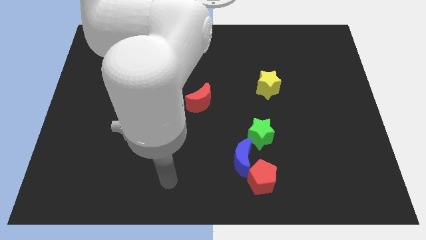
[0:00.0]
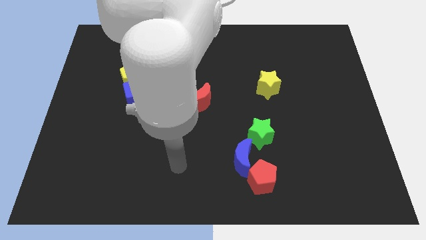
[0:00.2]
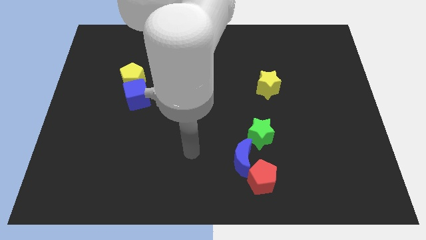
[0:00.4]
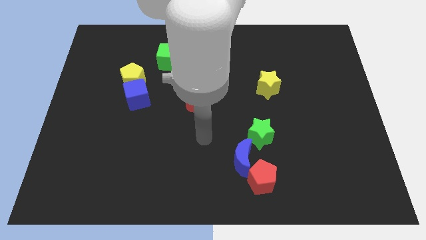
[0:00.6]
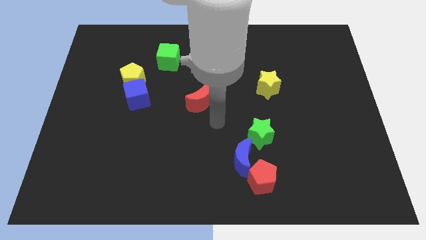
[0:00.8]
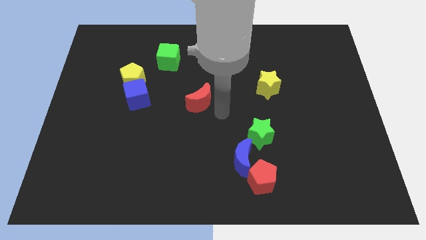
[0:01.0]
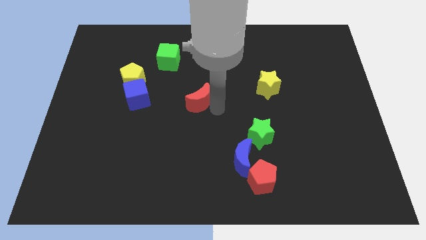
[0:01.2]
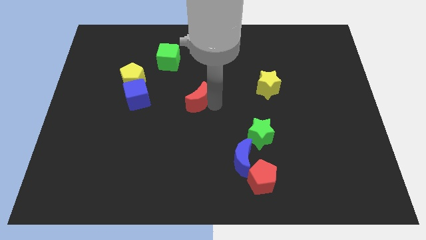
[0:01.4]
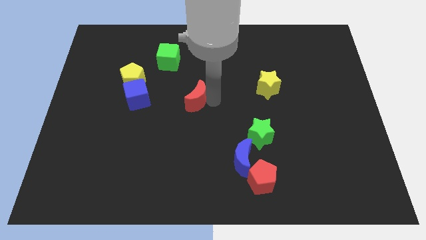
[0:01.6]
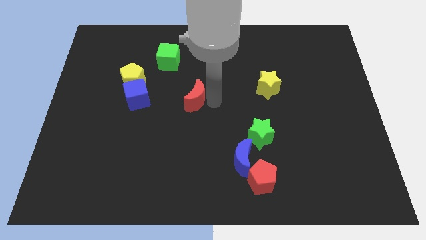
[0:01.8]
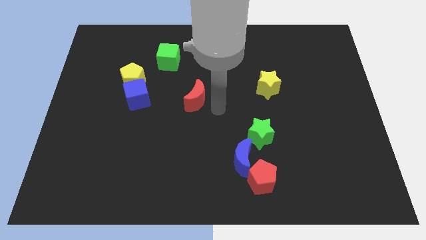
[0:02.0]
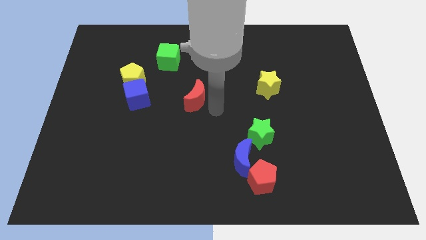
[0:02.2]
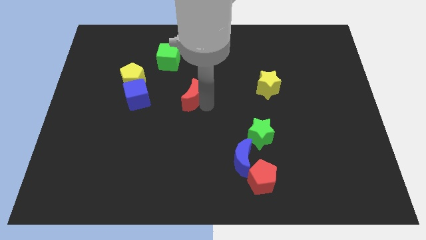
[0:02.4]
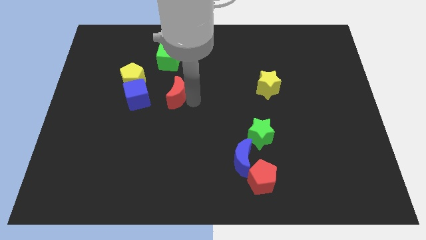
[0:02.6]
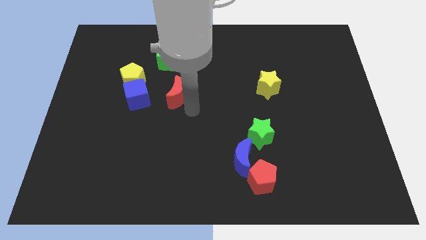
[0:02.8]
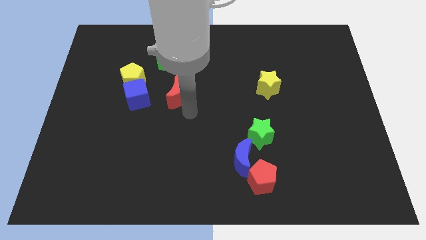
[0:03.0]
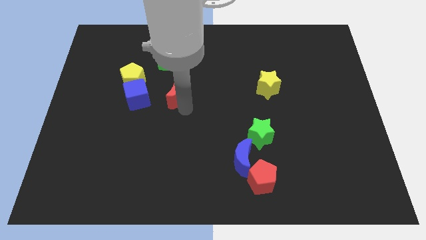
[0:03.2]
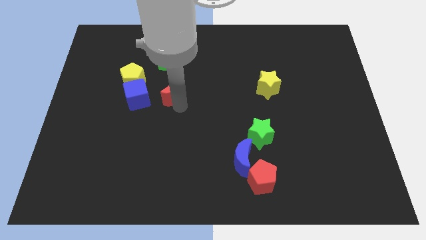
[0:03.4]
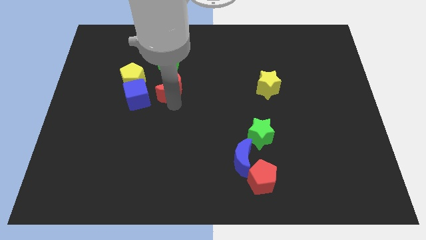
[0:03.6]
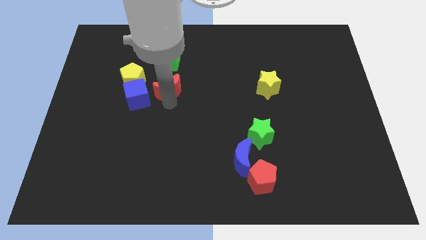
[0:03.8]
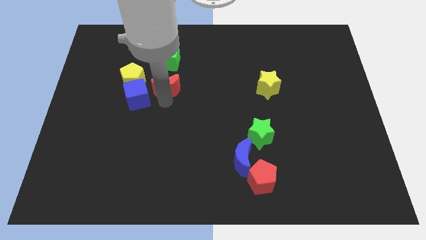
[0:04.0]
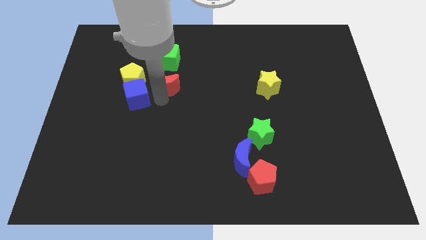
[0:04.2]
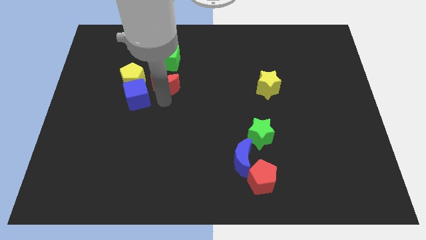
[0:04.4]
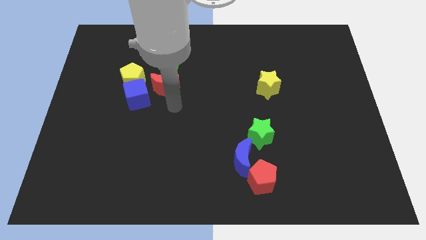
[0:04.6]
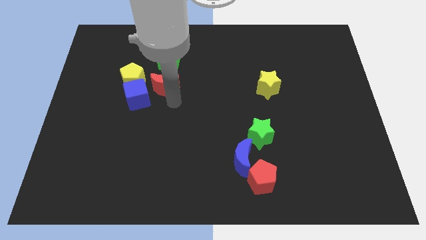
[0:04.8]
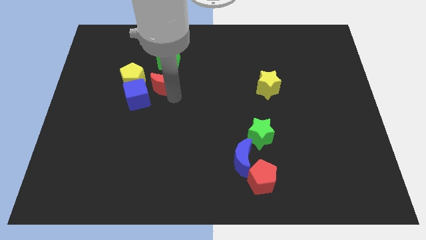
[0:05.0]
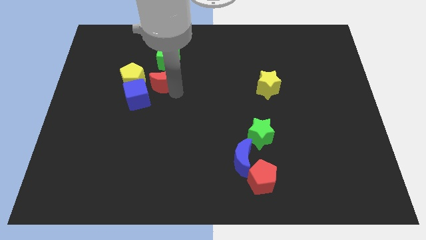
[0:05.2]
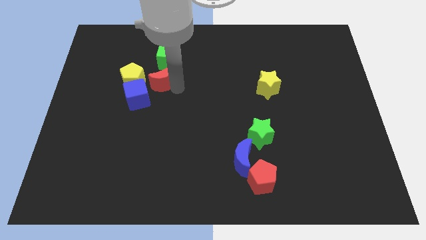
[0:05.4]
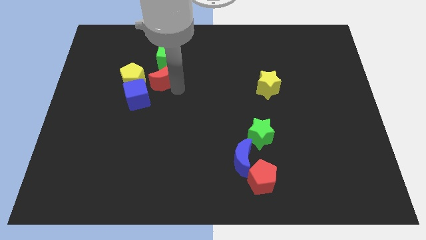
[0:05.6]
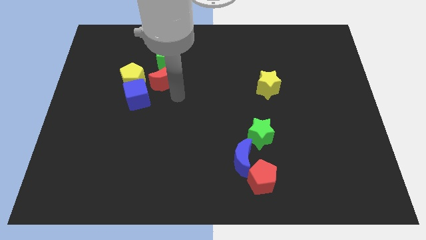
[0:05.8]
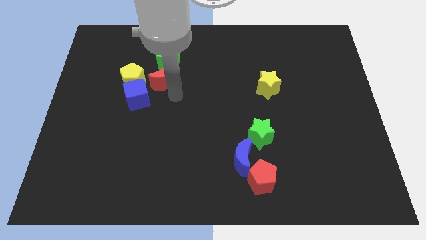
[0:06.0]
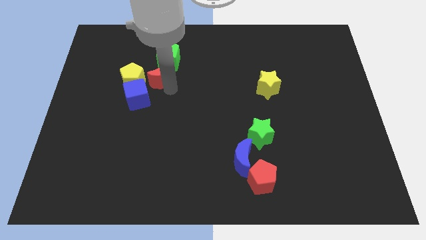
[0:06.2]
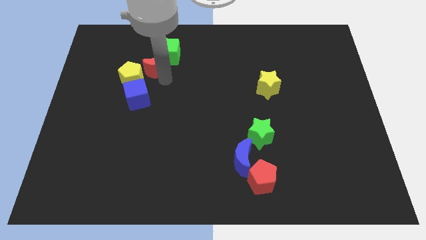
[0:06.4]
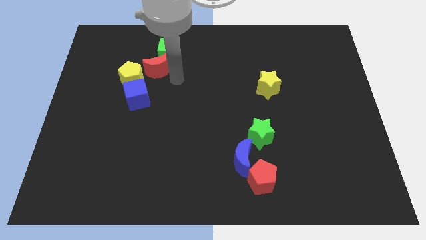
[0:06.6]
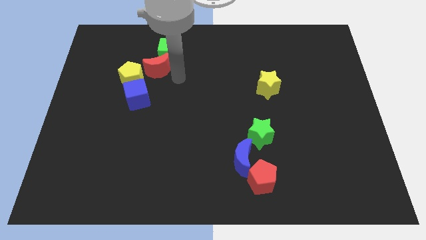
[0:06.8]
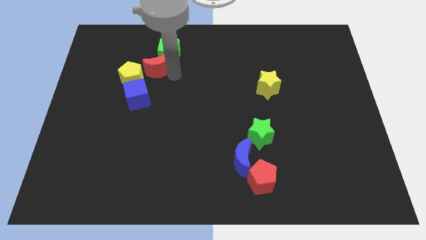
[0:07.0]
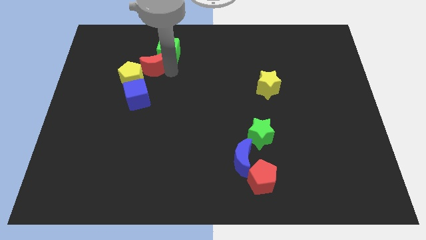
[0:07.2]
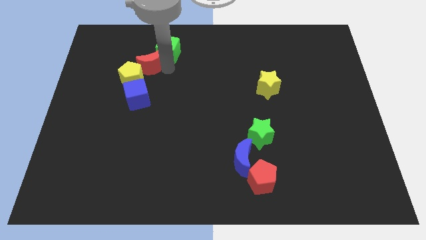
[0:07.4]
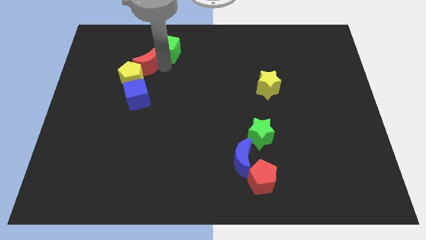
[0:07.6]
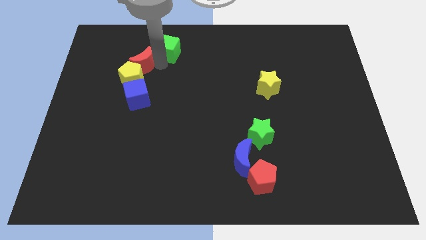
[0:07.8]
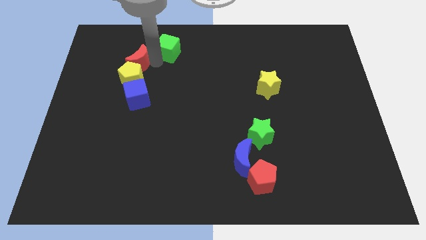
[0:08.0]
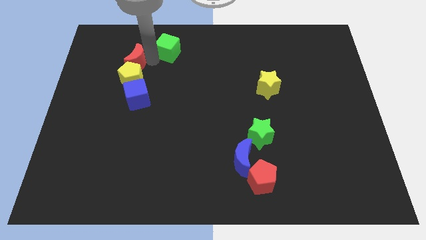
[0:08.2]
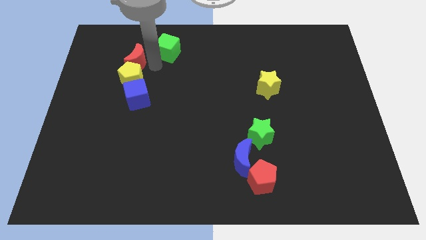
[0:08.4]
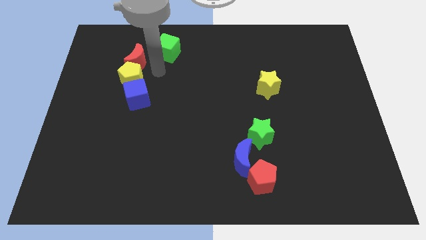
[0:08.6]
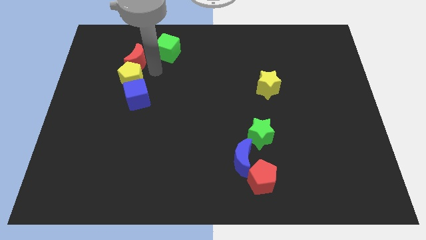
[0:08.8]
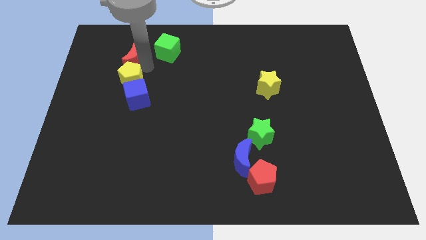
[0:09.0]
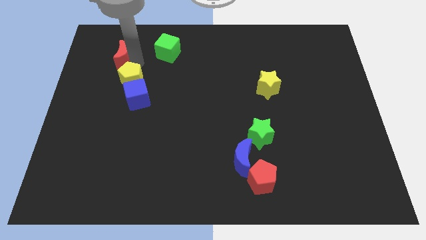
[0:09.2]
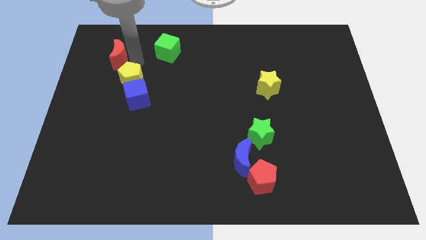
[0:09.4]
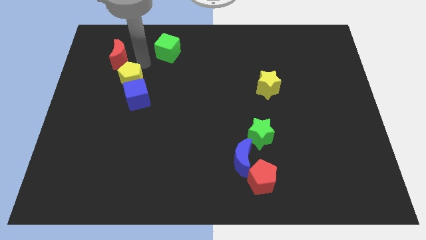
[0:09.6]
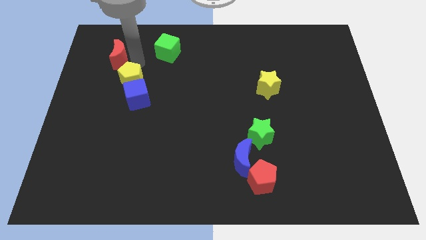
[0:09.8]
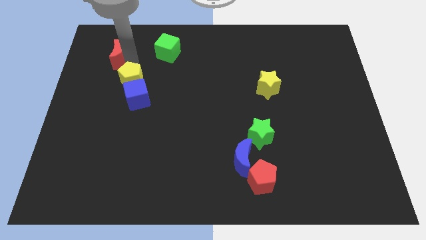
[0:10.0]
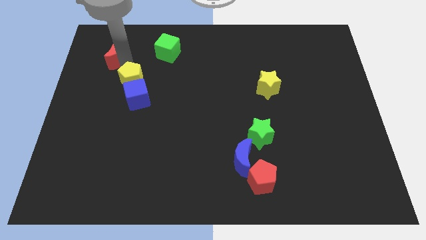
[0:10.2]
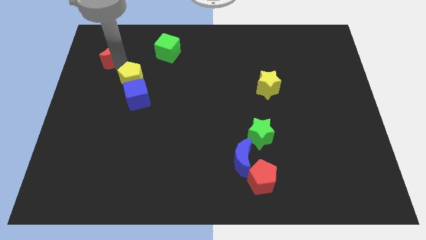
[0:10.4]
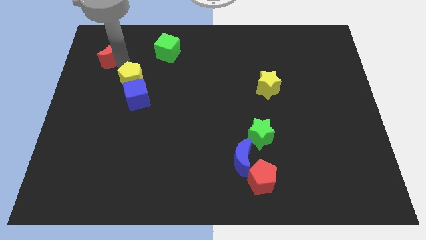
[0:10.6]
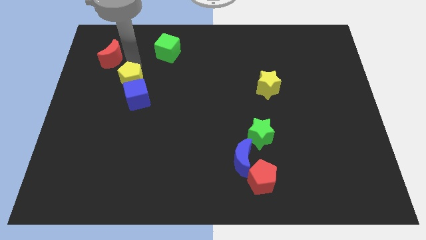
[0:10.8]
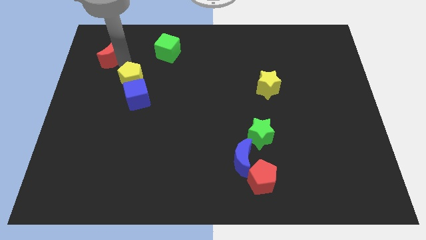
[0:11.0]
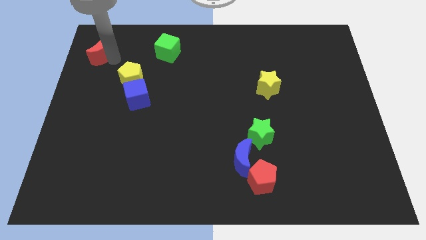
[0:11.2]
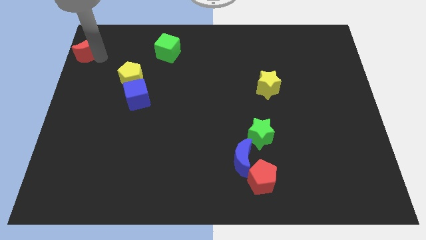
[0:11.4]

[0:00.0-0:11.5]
move the red moon to the upper left corner
